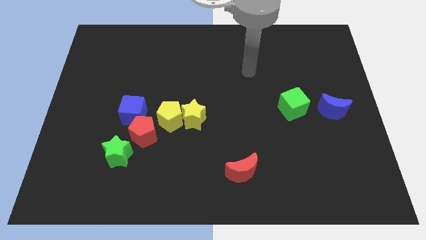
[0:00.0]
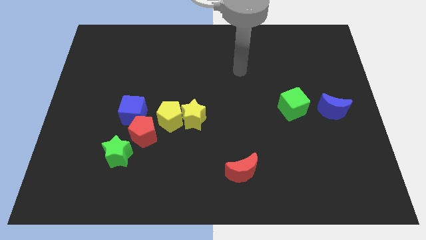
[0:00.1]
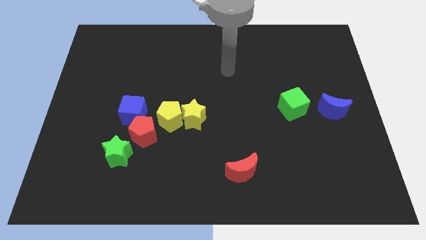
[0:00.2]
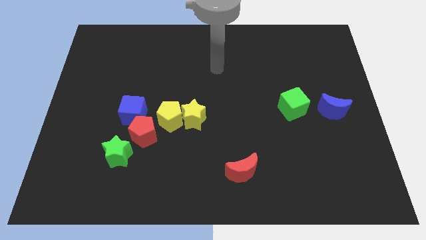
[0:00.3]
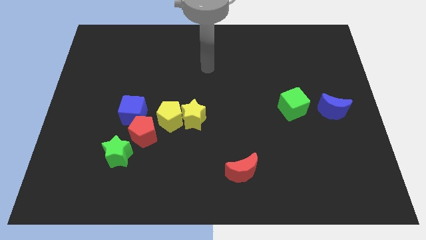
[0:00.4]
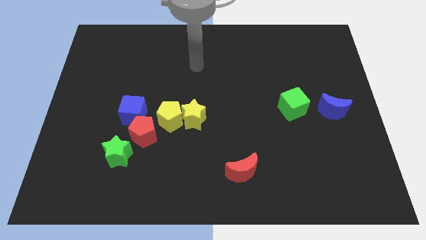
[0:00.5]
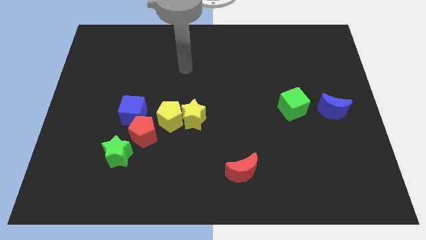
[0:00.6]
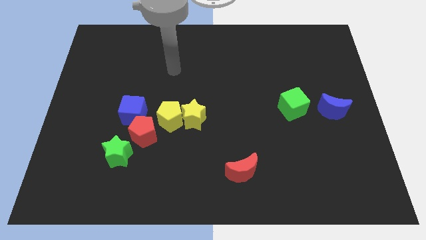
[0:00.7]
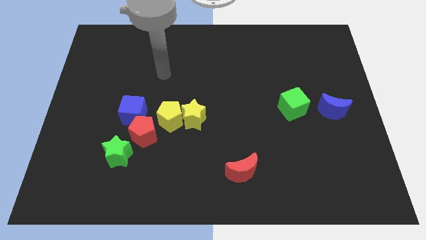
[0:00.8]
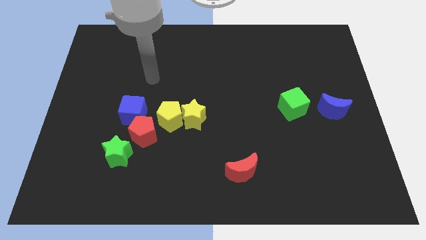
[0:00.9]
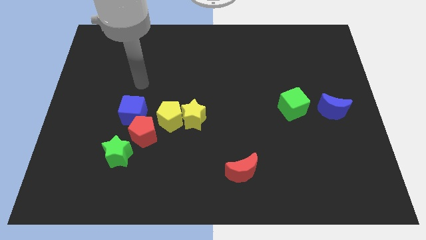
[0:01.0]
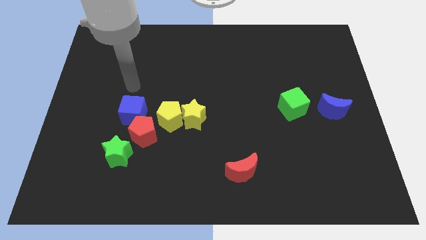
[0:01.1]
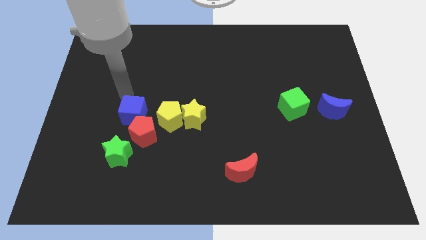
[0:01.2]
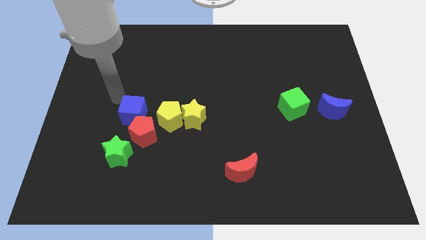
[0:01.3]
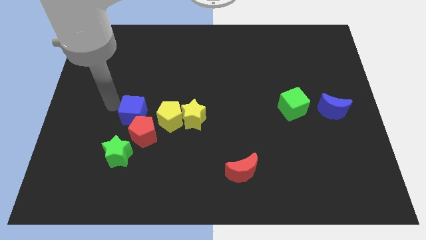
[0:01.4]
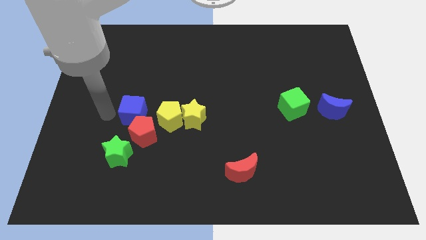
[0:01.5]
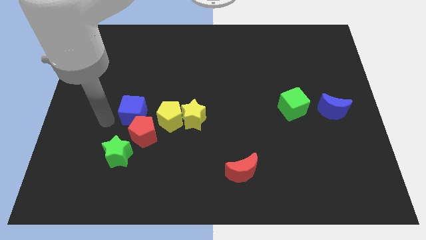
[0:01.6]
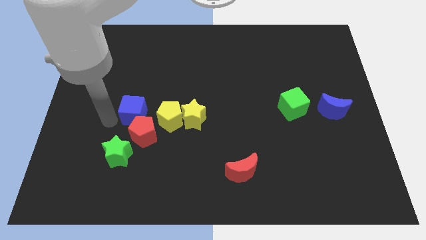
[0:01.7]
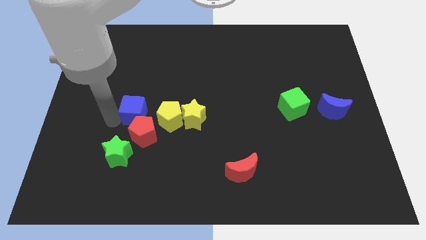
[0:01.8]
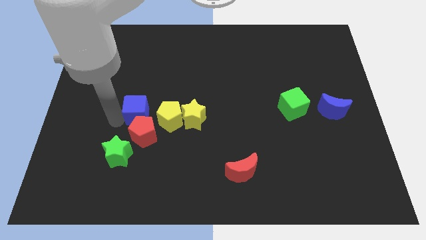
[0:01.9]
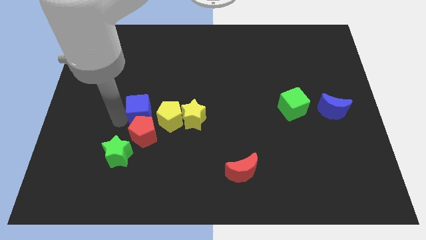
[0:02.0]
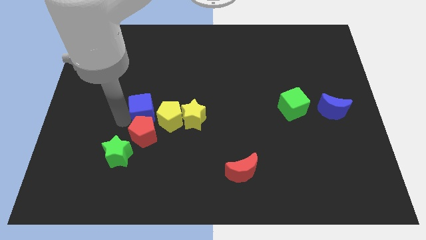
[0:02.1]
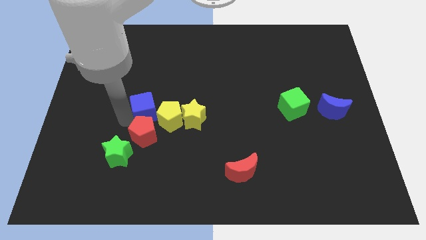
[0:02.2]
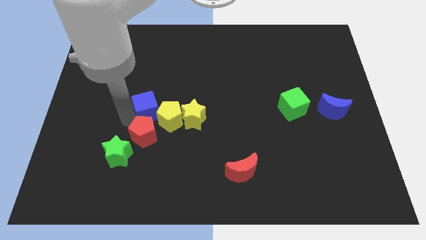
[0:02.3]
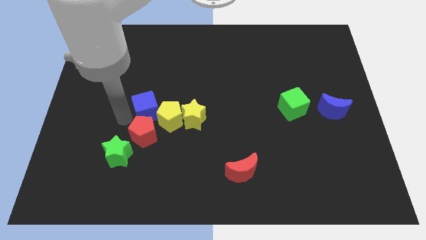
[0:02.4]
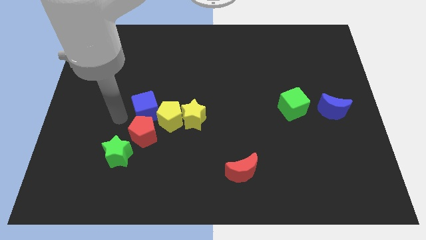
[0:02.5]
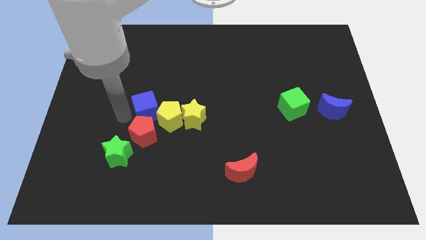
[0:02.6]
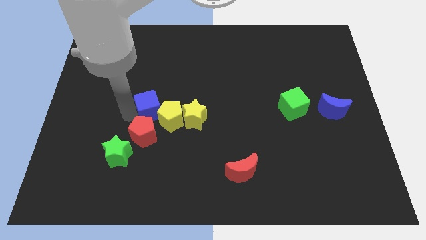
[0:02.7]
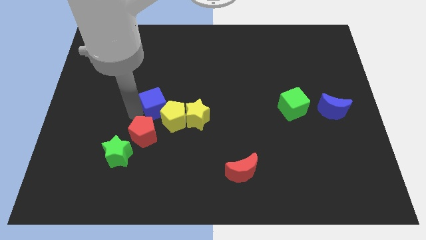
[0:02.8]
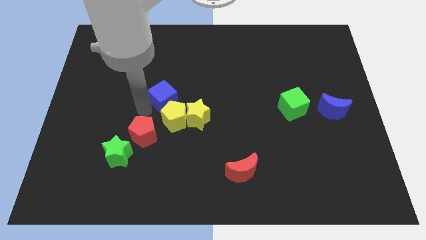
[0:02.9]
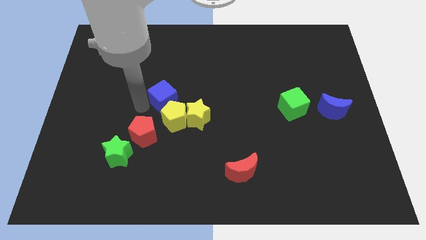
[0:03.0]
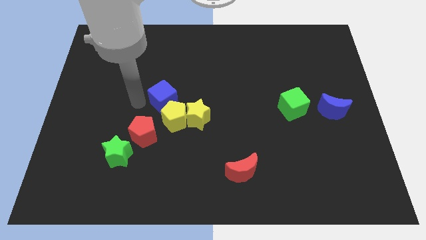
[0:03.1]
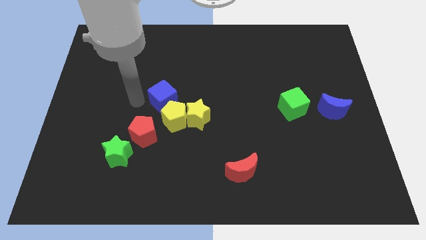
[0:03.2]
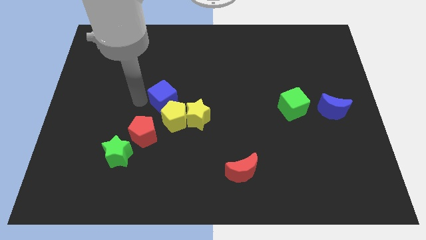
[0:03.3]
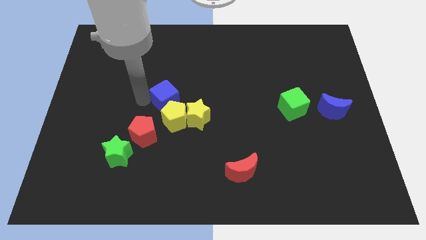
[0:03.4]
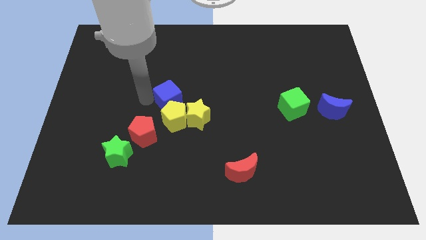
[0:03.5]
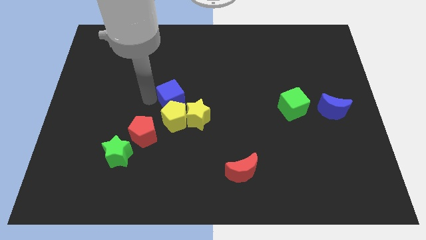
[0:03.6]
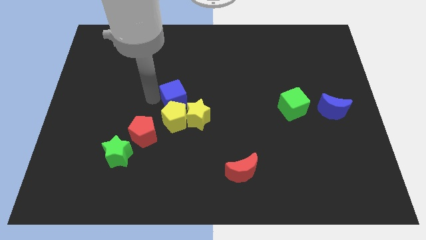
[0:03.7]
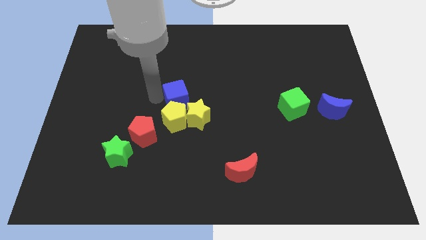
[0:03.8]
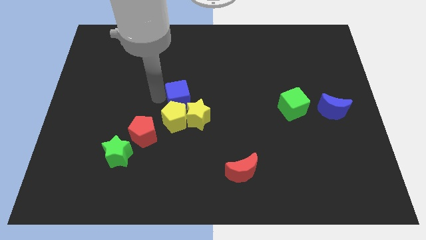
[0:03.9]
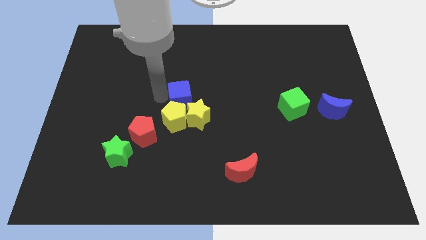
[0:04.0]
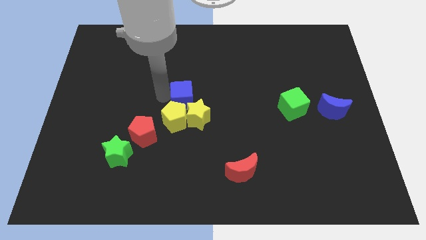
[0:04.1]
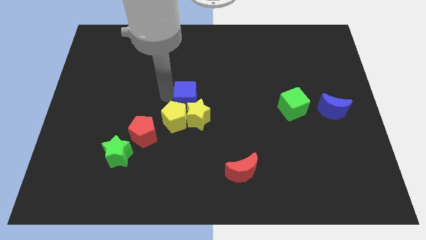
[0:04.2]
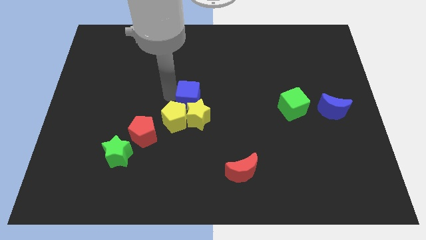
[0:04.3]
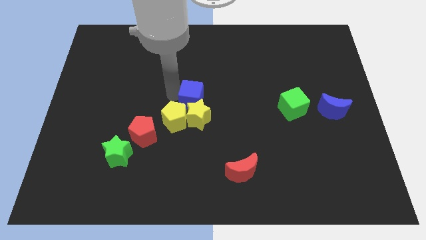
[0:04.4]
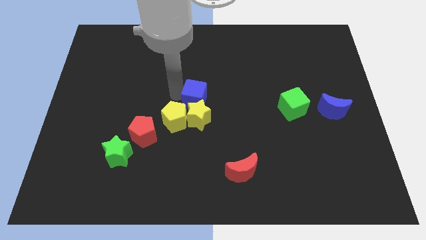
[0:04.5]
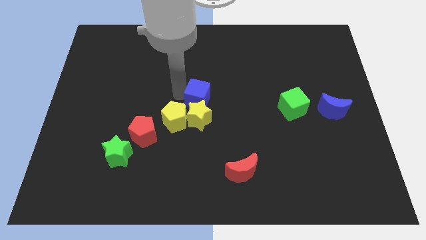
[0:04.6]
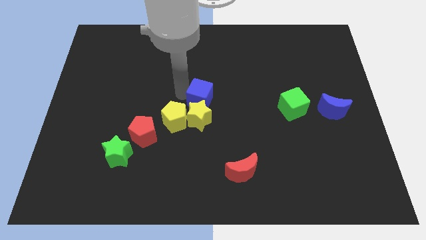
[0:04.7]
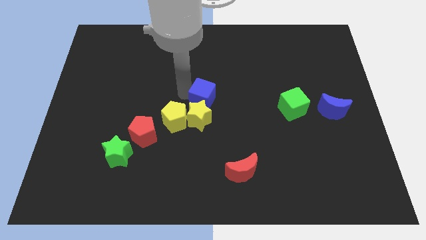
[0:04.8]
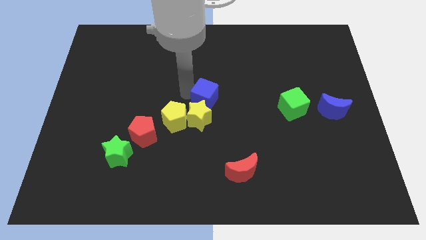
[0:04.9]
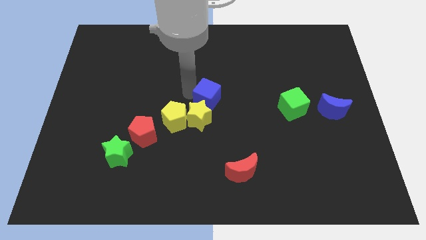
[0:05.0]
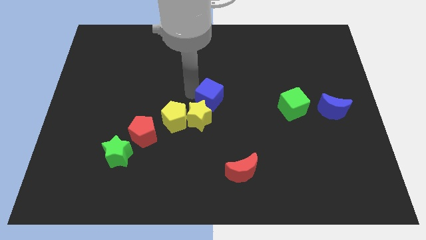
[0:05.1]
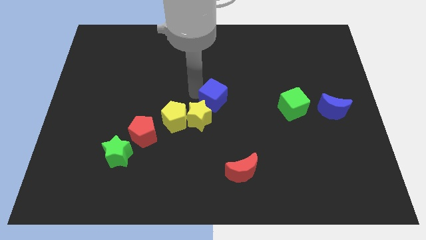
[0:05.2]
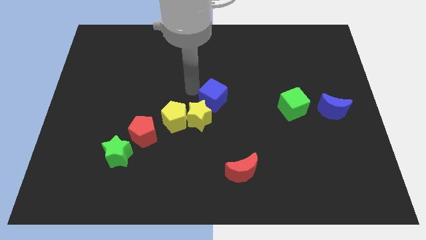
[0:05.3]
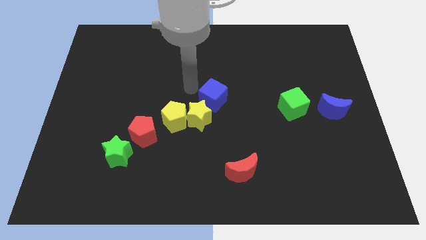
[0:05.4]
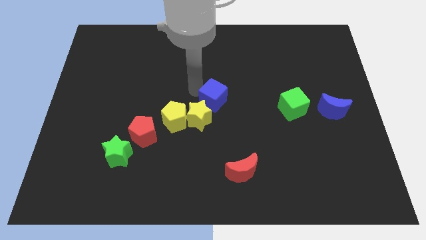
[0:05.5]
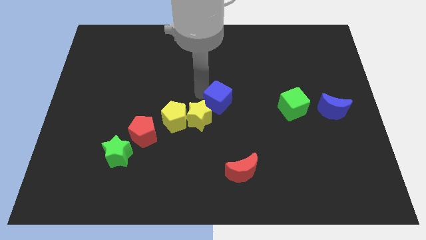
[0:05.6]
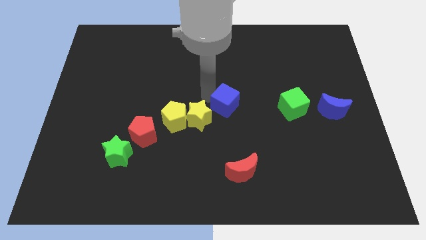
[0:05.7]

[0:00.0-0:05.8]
move the blue cube right

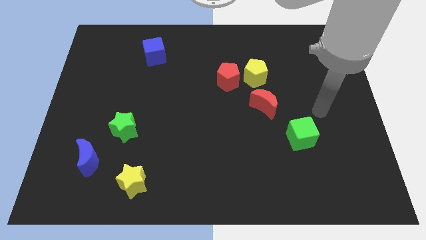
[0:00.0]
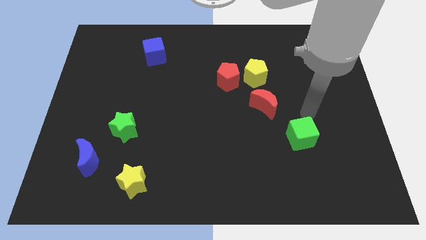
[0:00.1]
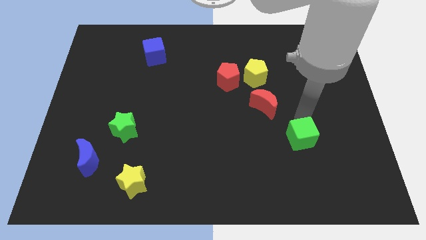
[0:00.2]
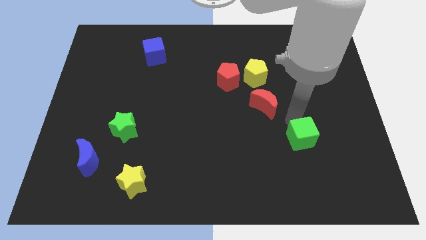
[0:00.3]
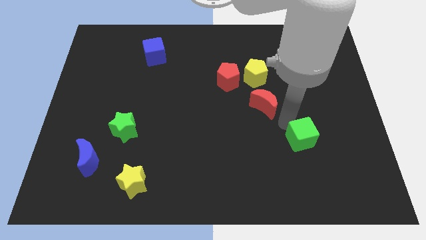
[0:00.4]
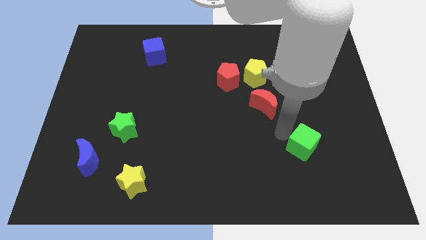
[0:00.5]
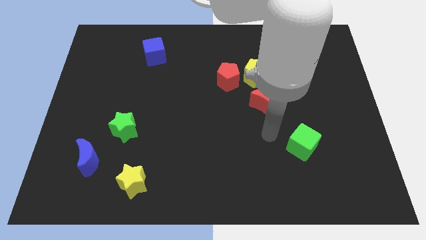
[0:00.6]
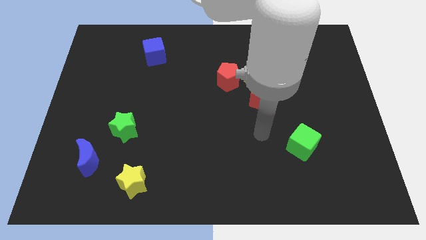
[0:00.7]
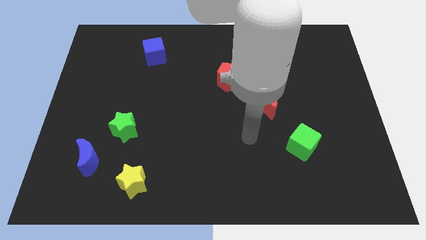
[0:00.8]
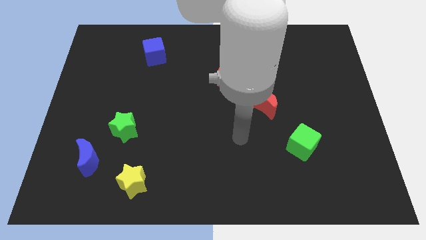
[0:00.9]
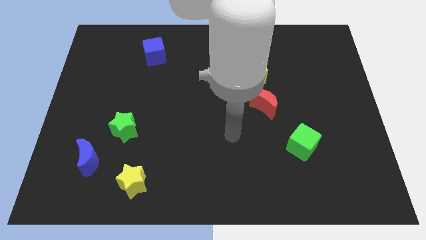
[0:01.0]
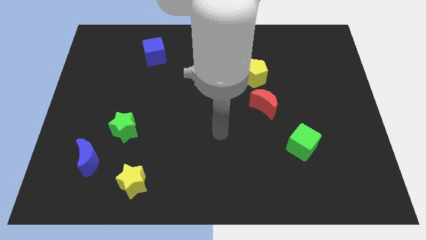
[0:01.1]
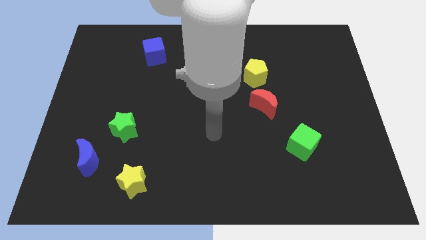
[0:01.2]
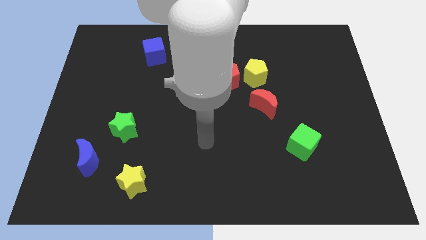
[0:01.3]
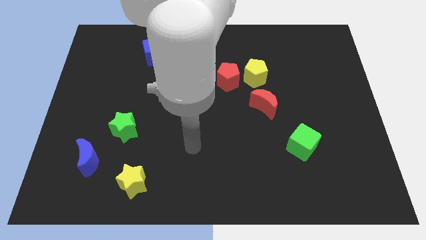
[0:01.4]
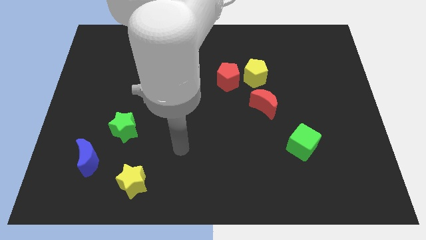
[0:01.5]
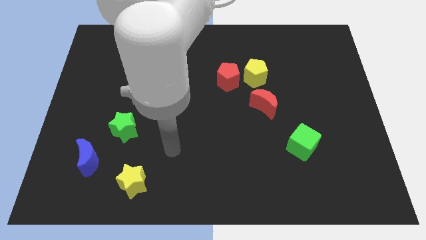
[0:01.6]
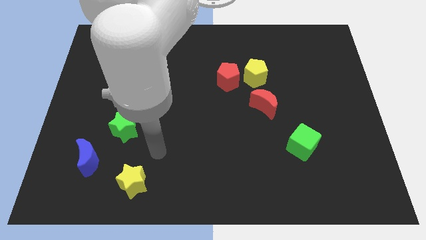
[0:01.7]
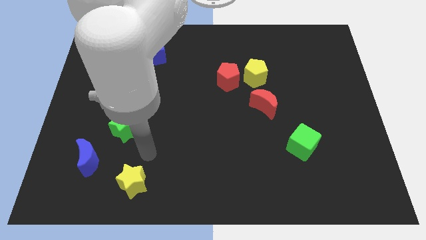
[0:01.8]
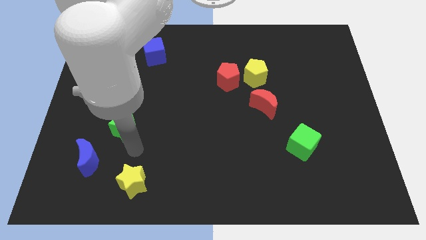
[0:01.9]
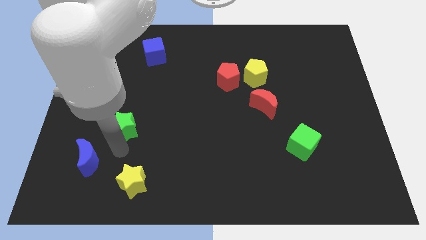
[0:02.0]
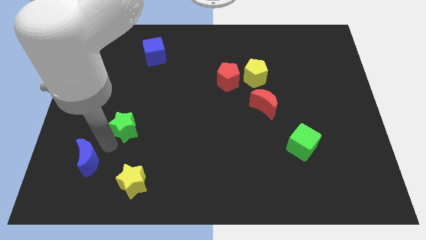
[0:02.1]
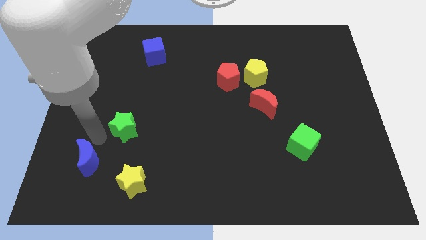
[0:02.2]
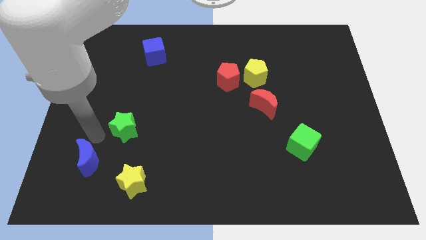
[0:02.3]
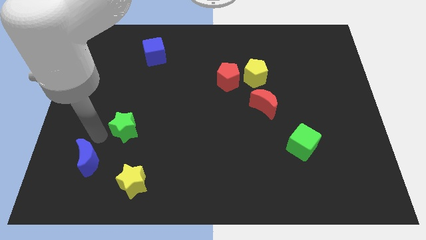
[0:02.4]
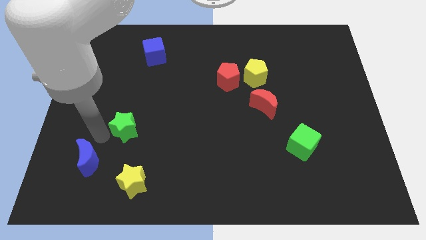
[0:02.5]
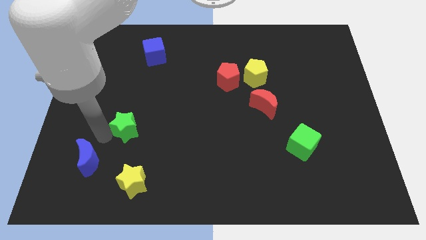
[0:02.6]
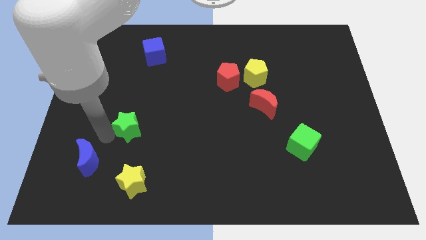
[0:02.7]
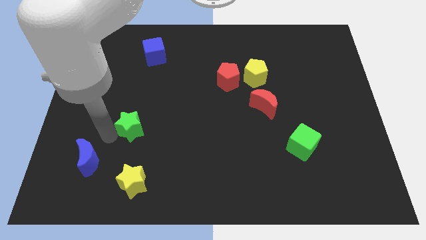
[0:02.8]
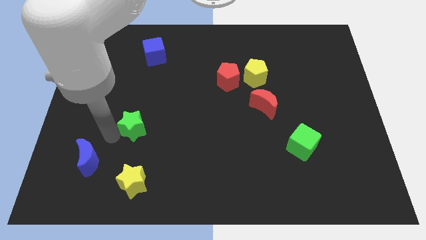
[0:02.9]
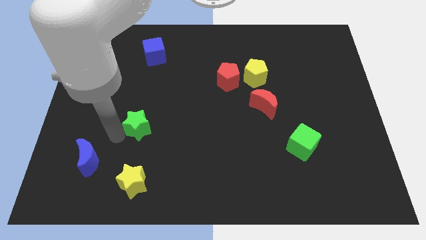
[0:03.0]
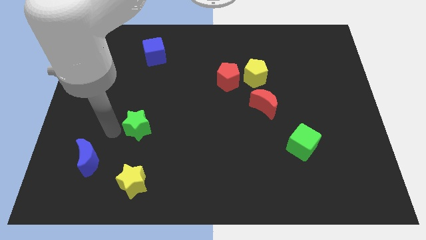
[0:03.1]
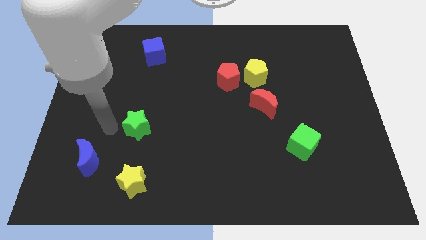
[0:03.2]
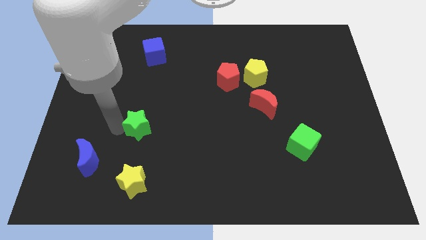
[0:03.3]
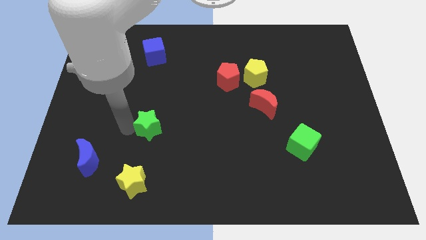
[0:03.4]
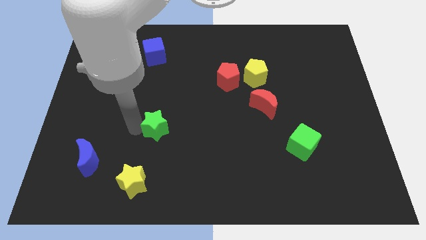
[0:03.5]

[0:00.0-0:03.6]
slide the green star a little to the right
